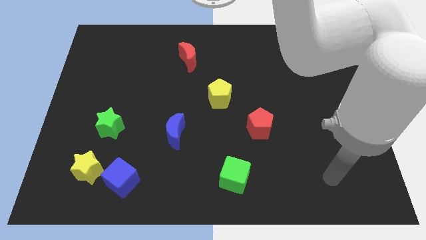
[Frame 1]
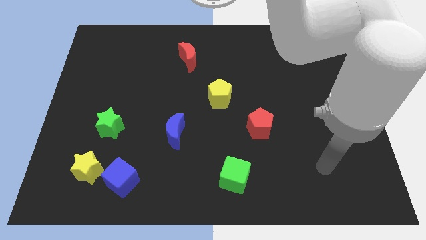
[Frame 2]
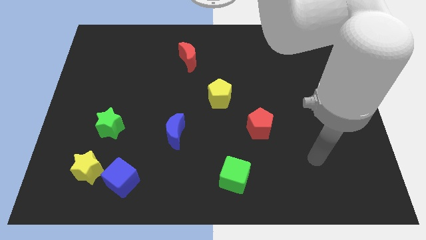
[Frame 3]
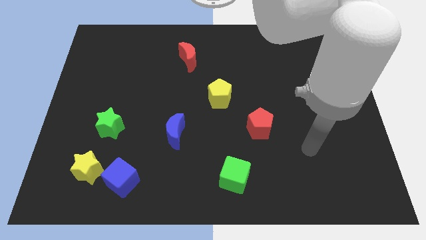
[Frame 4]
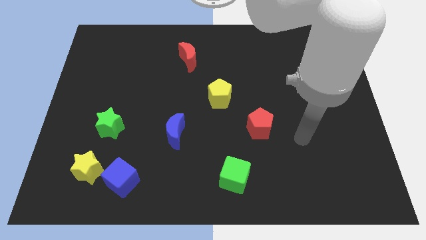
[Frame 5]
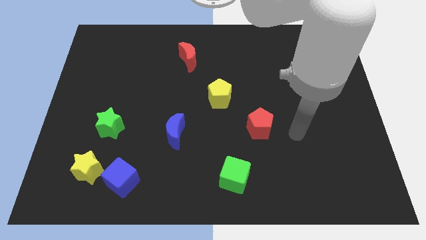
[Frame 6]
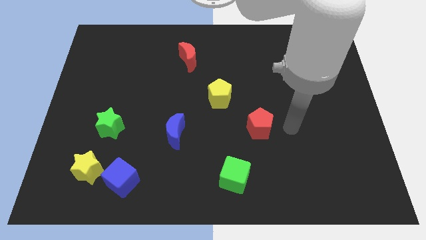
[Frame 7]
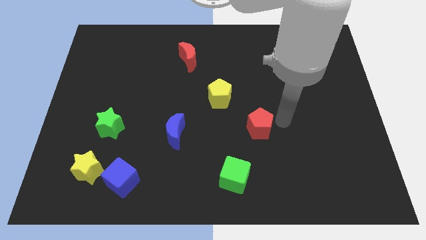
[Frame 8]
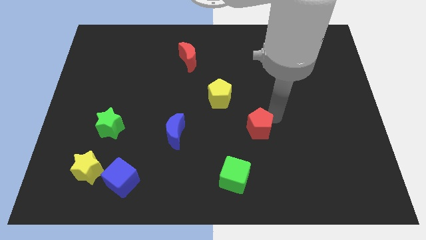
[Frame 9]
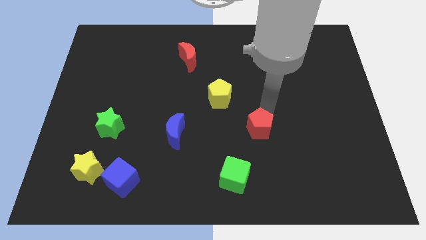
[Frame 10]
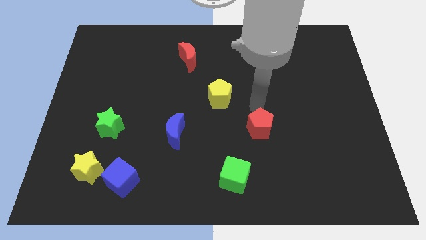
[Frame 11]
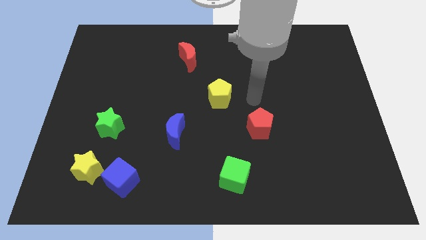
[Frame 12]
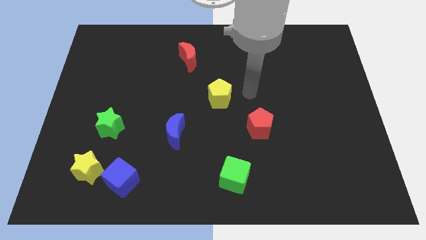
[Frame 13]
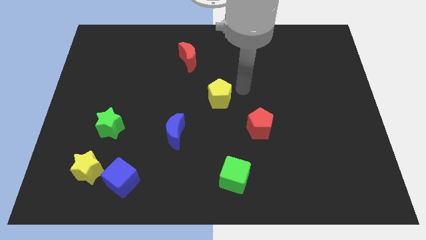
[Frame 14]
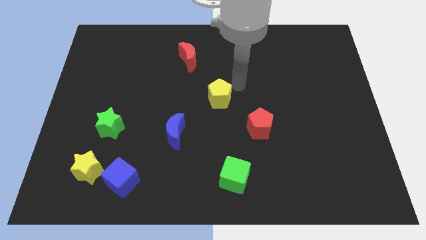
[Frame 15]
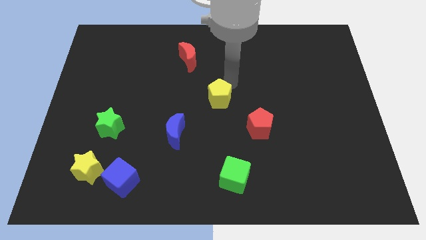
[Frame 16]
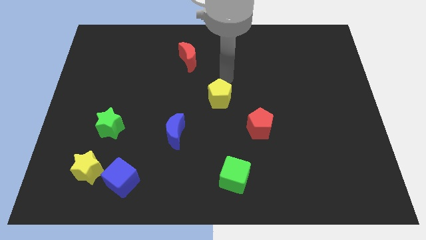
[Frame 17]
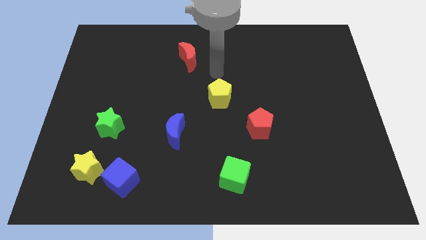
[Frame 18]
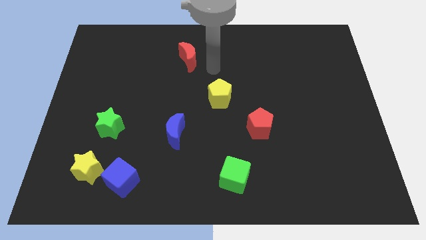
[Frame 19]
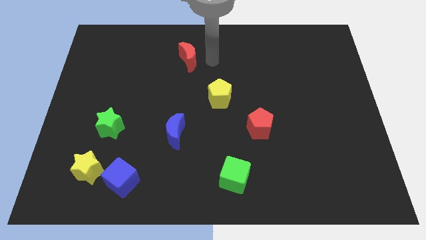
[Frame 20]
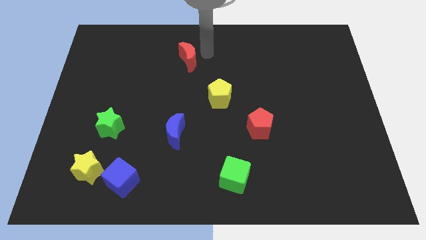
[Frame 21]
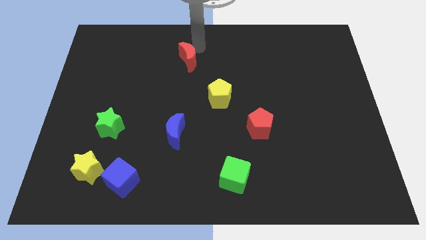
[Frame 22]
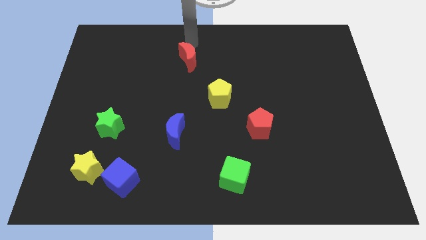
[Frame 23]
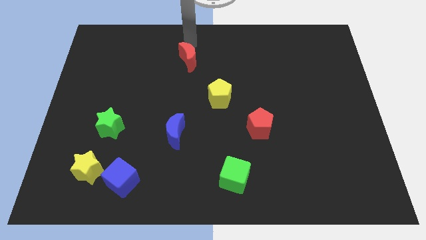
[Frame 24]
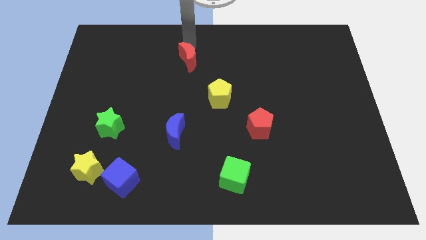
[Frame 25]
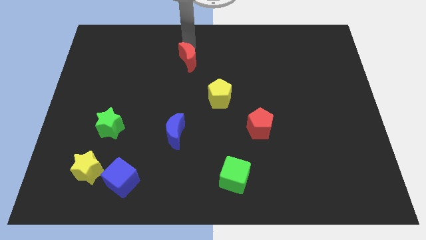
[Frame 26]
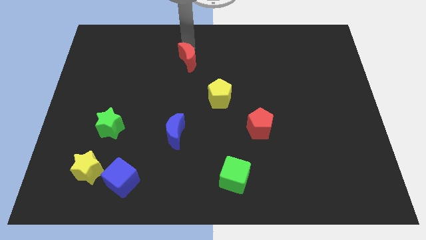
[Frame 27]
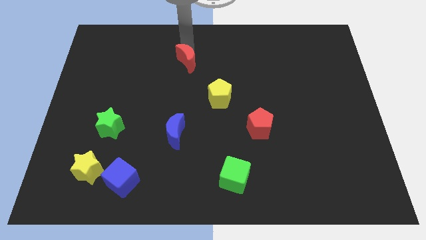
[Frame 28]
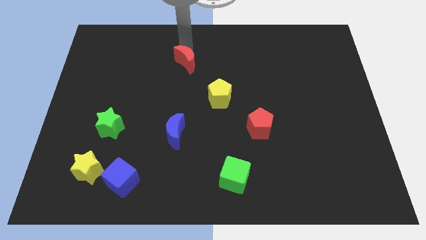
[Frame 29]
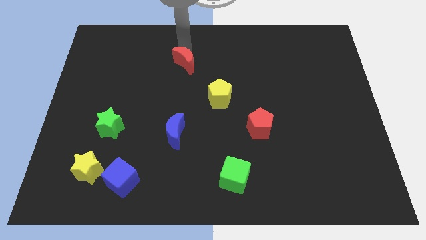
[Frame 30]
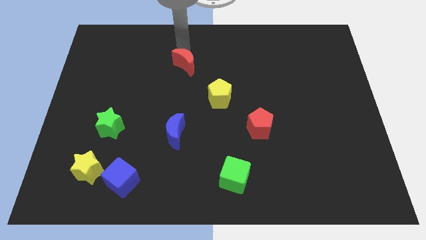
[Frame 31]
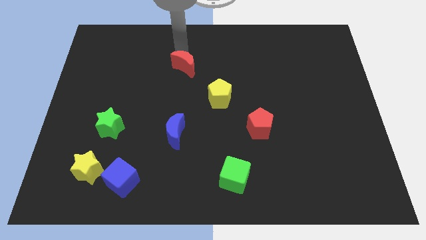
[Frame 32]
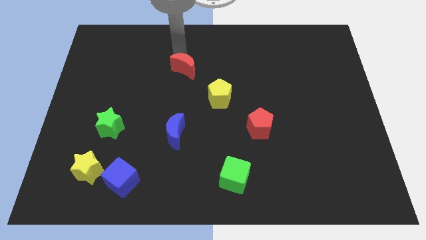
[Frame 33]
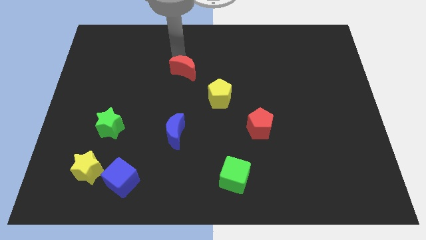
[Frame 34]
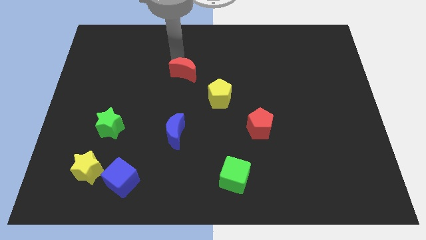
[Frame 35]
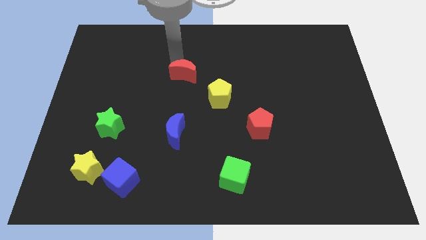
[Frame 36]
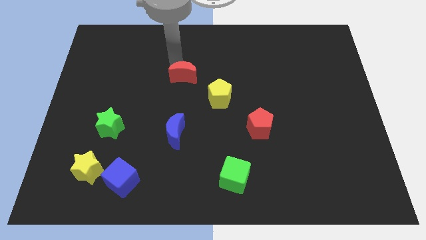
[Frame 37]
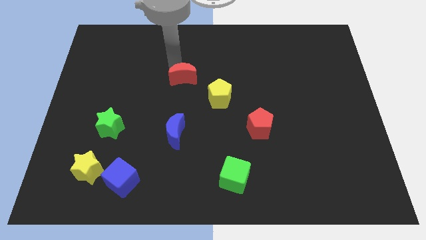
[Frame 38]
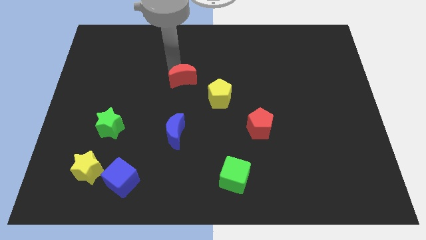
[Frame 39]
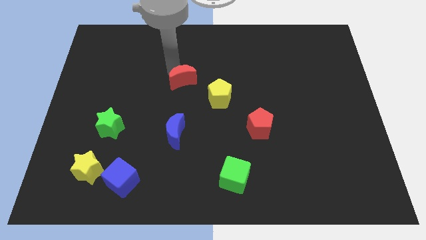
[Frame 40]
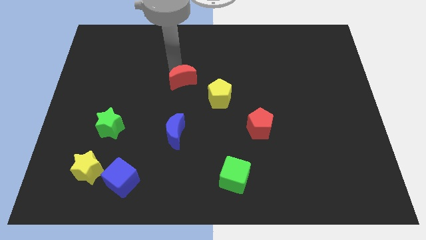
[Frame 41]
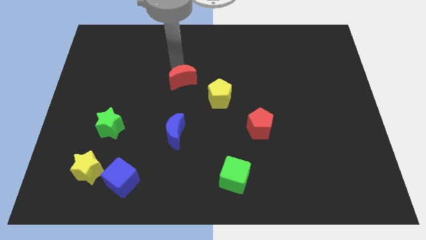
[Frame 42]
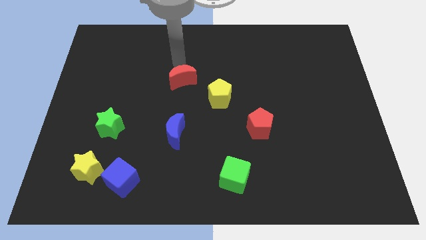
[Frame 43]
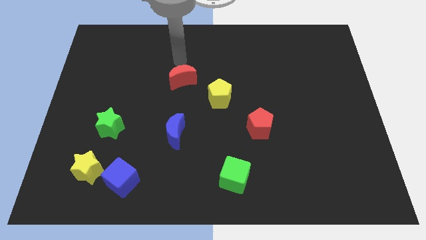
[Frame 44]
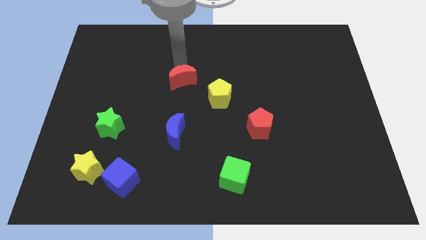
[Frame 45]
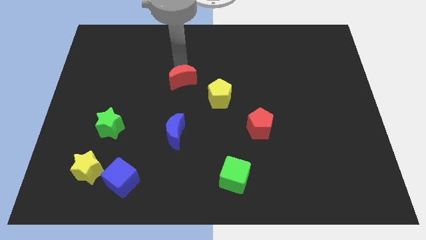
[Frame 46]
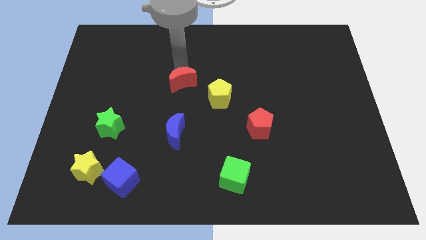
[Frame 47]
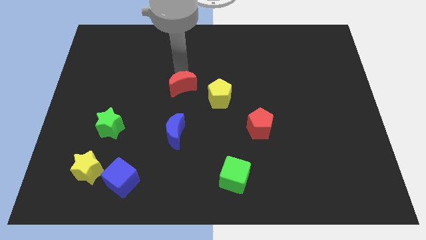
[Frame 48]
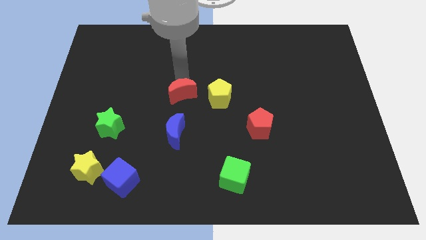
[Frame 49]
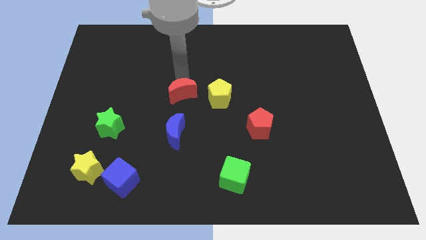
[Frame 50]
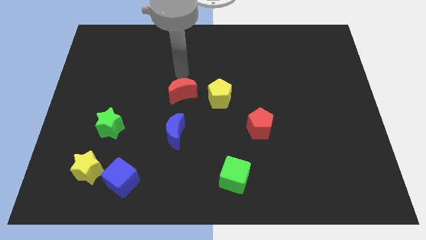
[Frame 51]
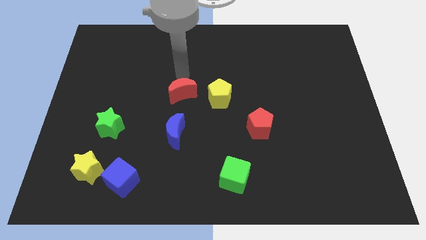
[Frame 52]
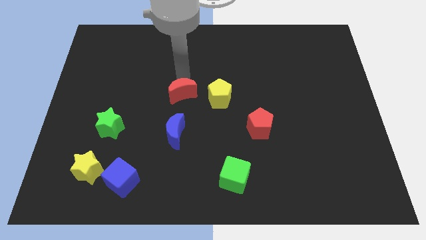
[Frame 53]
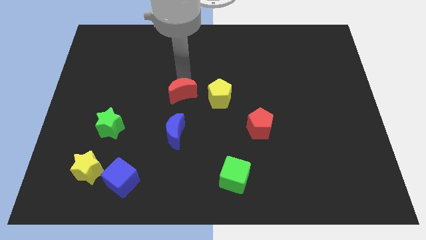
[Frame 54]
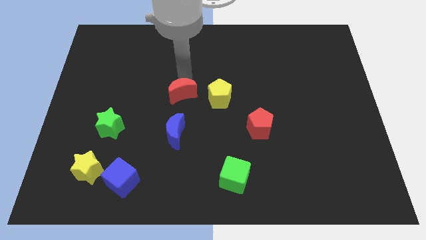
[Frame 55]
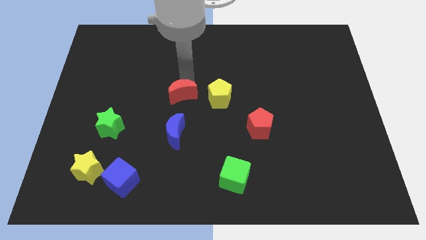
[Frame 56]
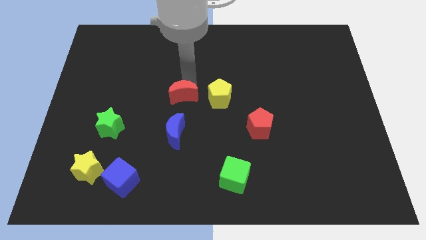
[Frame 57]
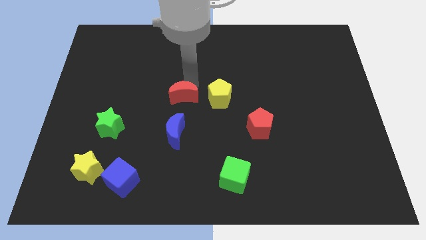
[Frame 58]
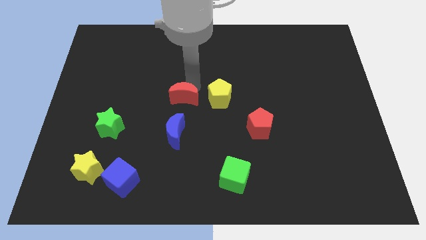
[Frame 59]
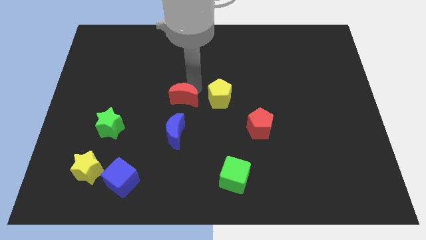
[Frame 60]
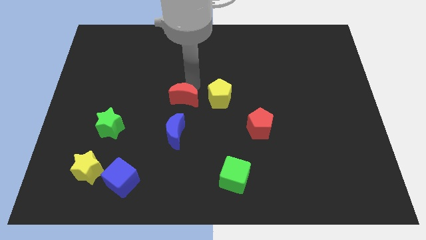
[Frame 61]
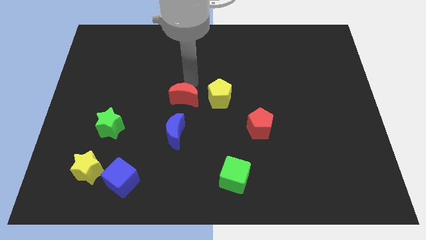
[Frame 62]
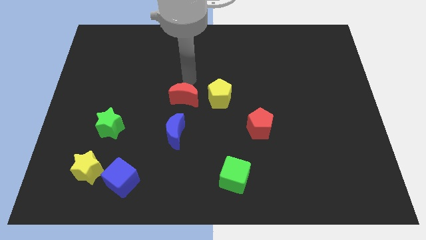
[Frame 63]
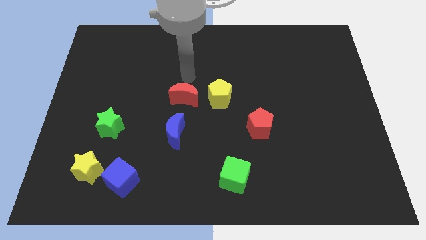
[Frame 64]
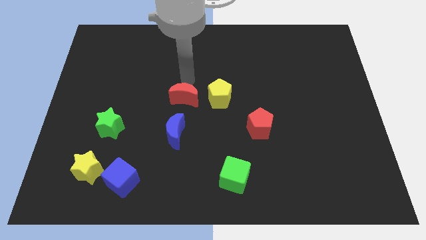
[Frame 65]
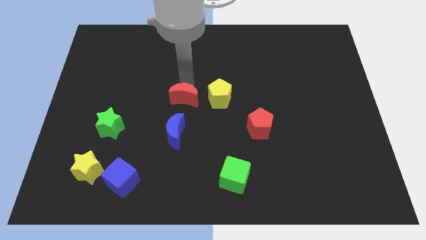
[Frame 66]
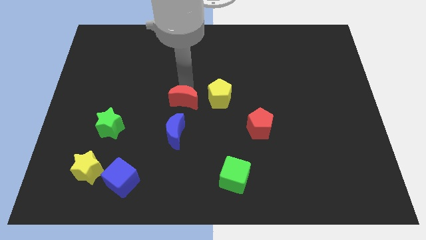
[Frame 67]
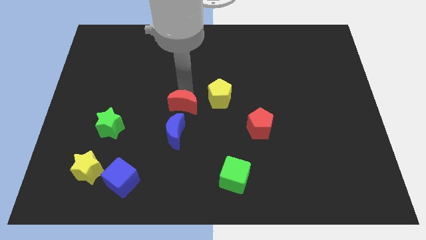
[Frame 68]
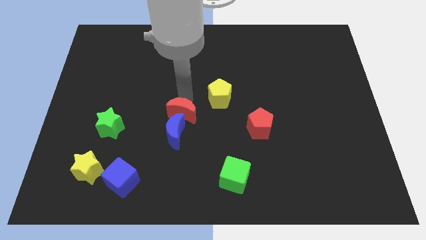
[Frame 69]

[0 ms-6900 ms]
slide the red moon close to the blue moon

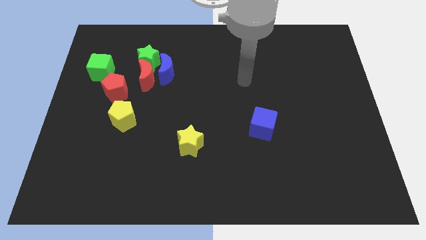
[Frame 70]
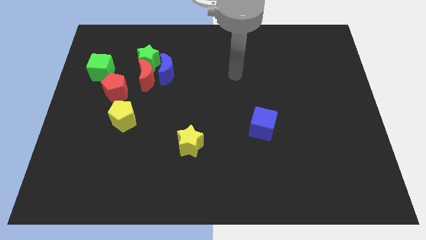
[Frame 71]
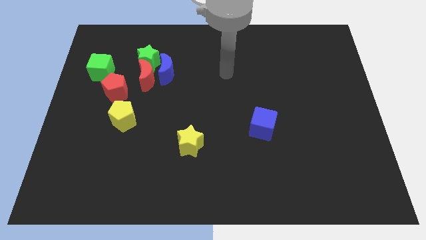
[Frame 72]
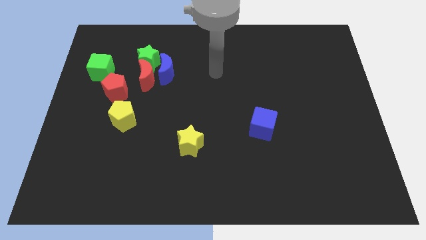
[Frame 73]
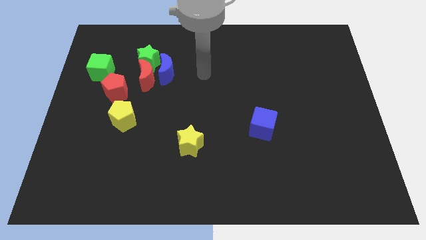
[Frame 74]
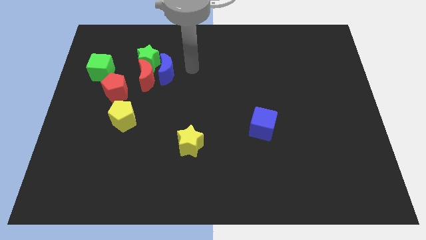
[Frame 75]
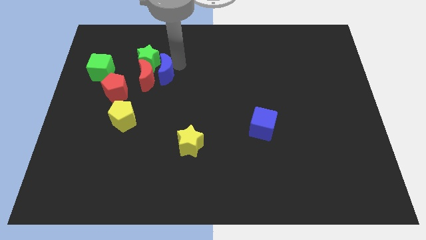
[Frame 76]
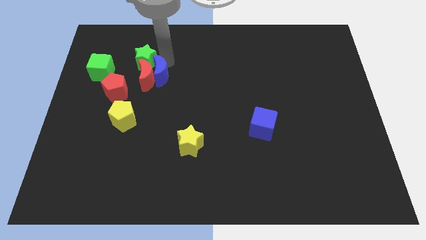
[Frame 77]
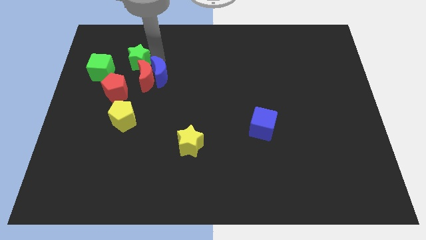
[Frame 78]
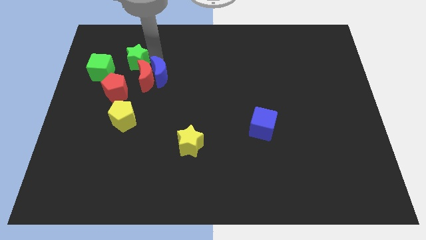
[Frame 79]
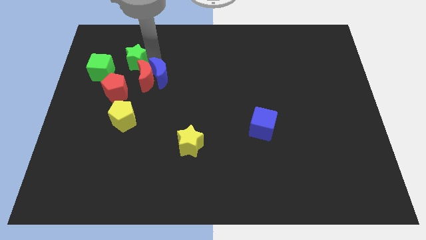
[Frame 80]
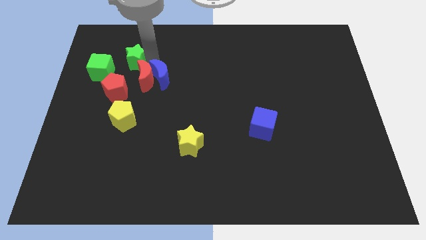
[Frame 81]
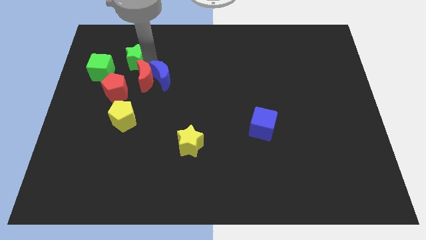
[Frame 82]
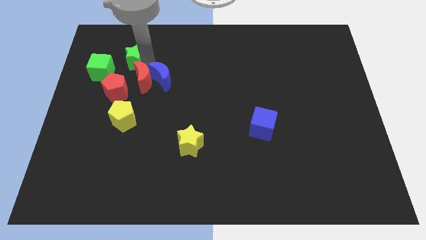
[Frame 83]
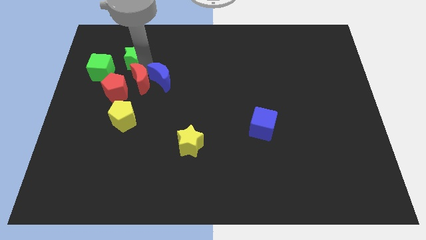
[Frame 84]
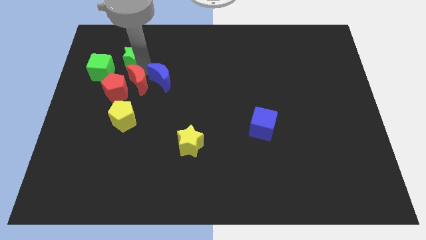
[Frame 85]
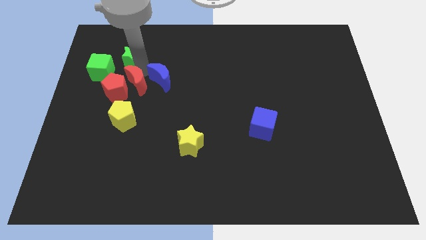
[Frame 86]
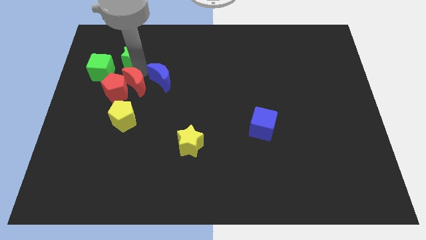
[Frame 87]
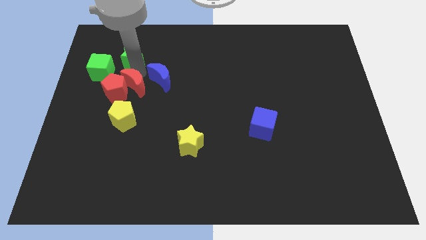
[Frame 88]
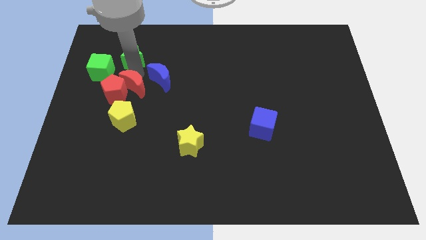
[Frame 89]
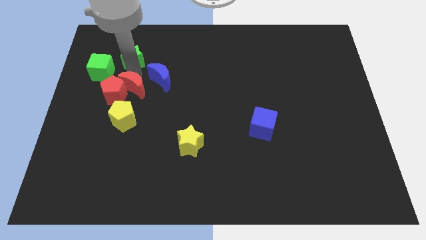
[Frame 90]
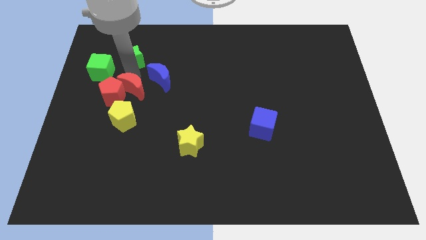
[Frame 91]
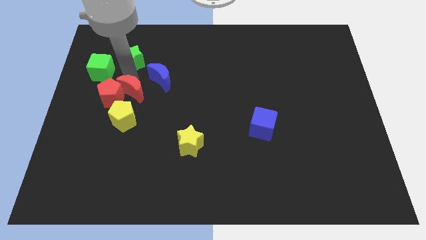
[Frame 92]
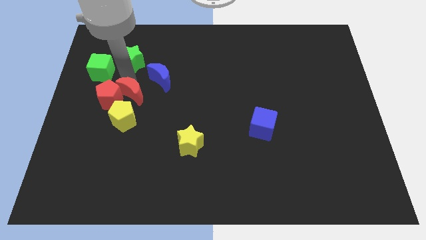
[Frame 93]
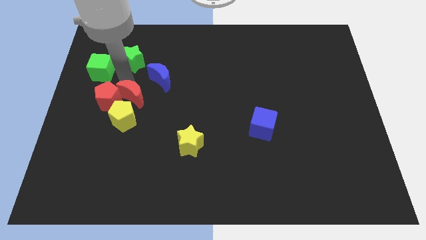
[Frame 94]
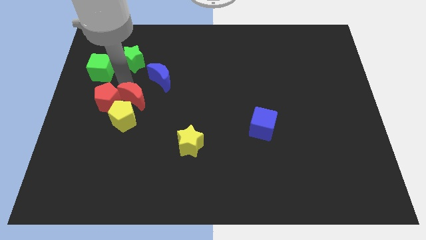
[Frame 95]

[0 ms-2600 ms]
slide the red moon close to the yellow pentagon
